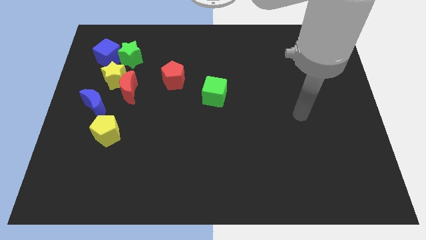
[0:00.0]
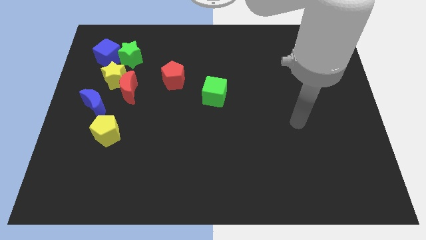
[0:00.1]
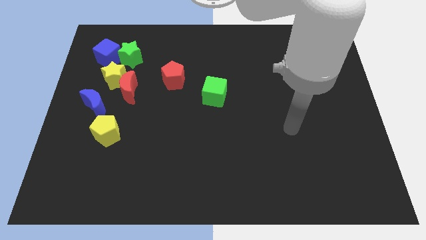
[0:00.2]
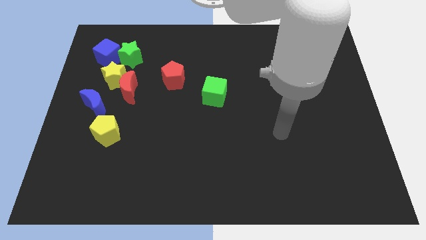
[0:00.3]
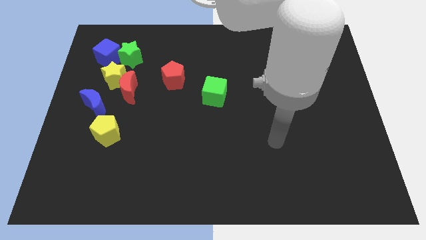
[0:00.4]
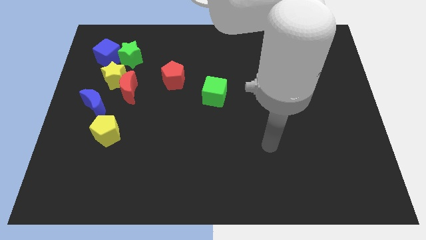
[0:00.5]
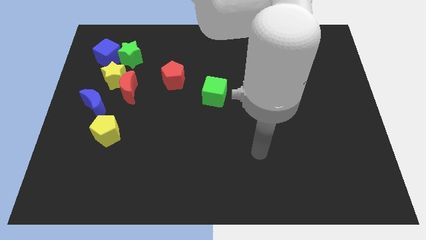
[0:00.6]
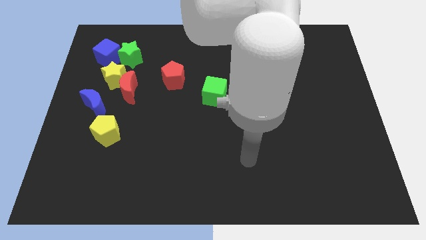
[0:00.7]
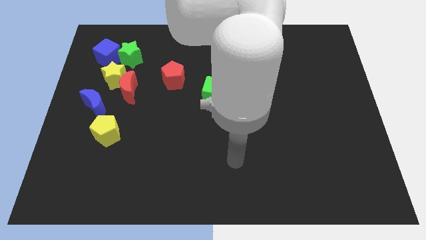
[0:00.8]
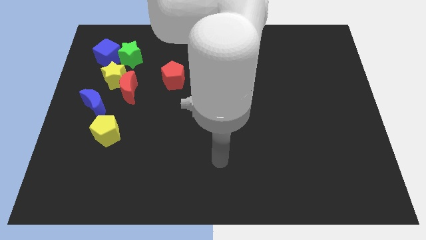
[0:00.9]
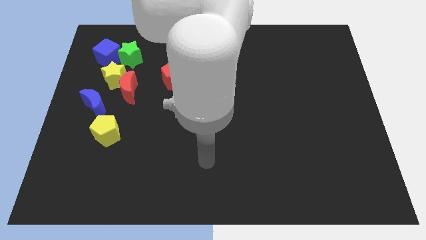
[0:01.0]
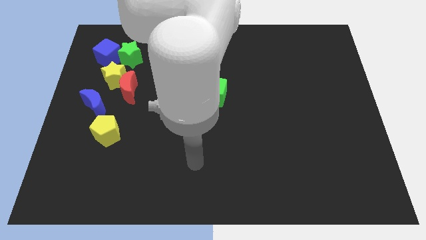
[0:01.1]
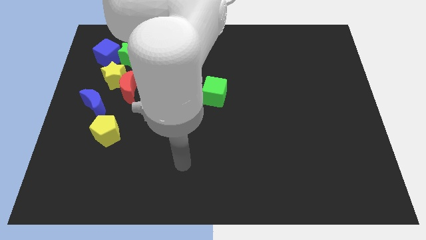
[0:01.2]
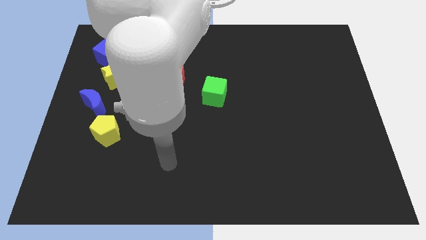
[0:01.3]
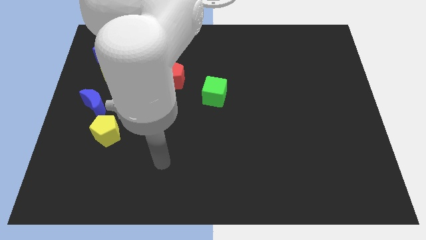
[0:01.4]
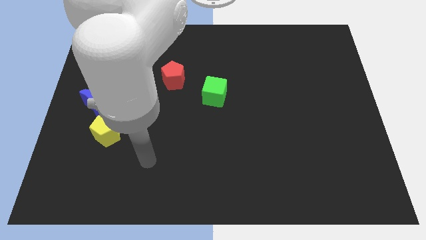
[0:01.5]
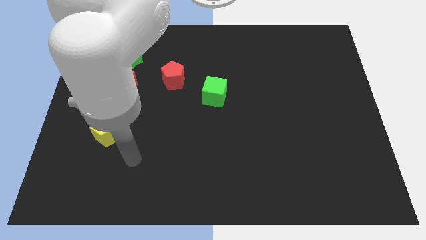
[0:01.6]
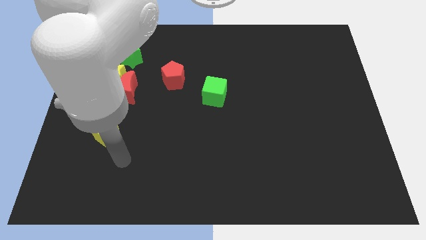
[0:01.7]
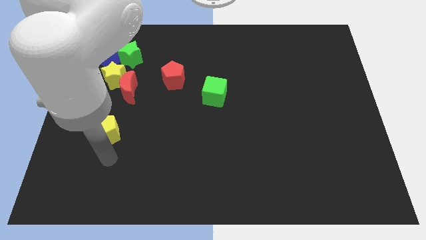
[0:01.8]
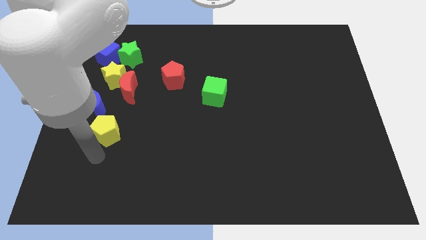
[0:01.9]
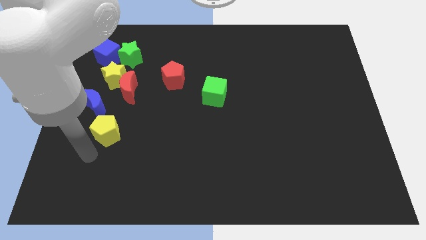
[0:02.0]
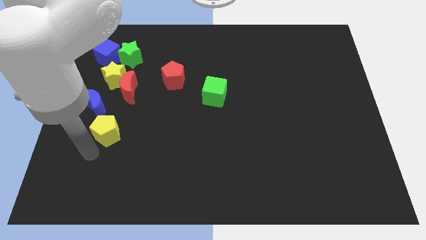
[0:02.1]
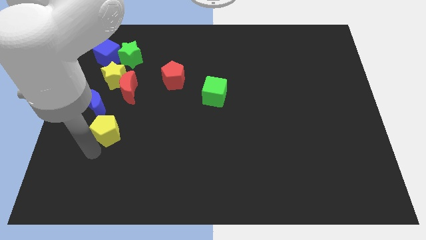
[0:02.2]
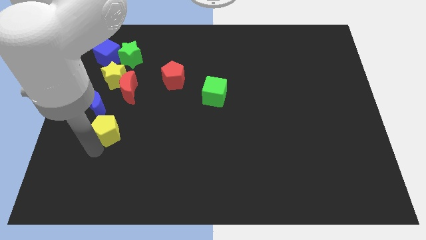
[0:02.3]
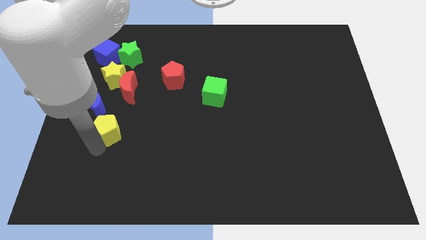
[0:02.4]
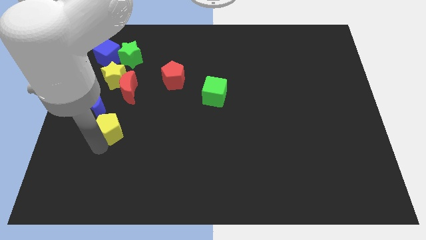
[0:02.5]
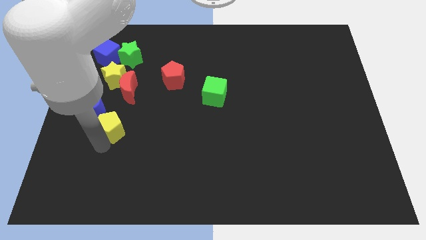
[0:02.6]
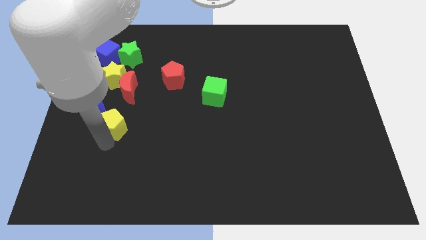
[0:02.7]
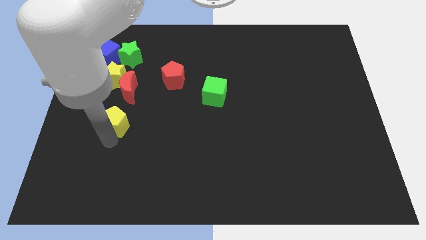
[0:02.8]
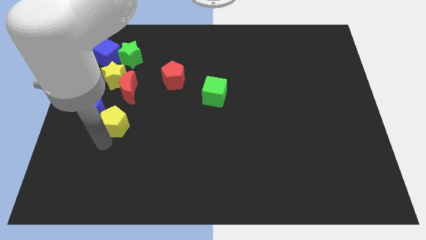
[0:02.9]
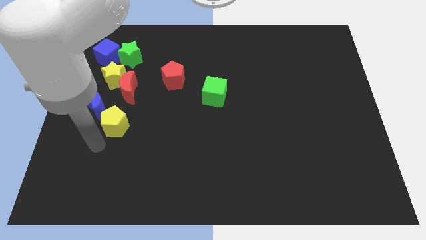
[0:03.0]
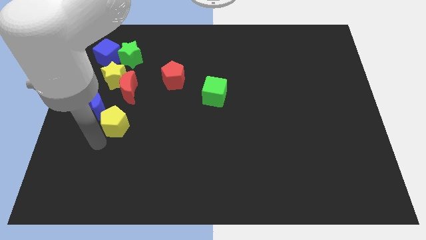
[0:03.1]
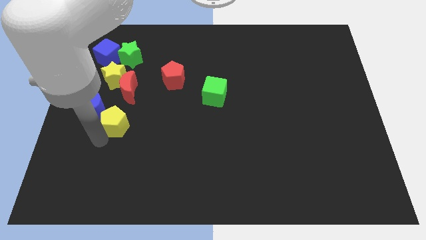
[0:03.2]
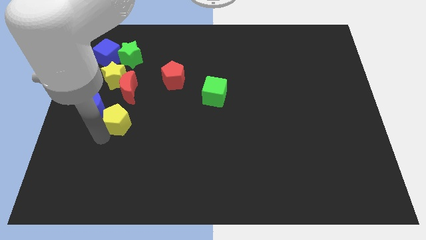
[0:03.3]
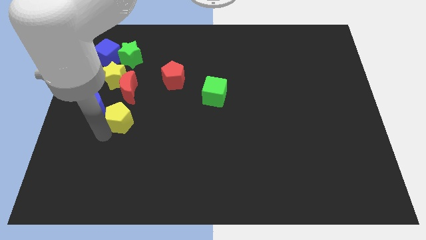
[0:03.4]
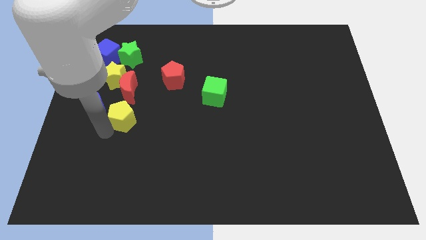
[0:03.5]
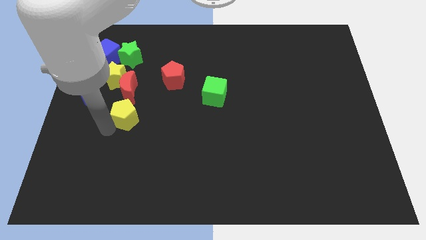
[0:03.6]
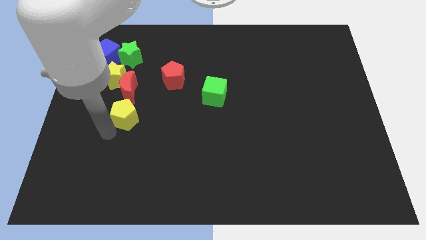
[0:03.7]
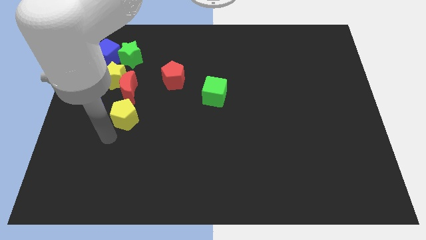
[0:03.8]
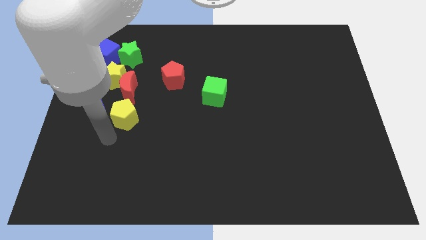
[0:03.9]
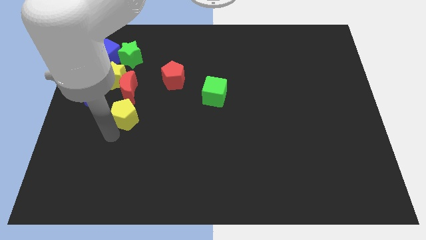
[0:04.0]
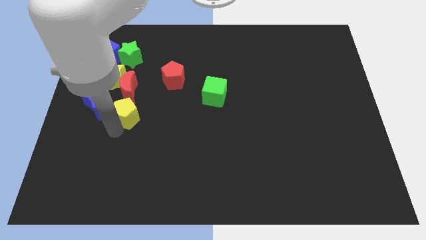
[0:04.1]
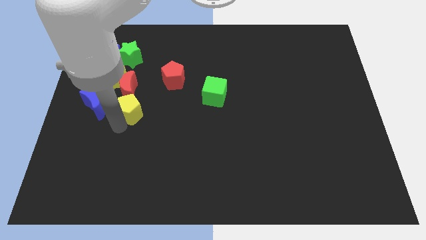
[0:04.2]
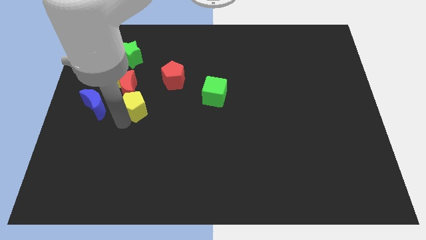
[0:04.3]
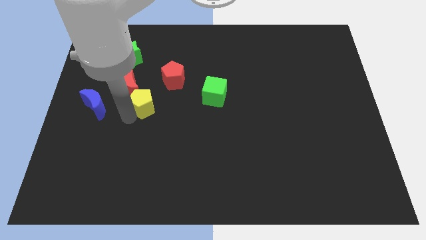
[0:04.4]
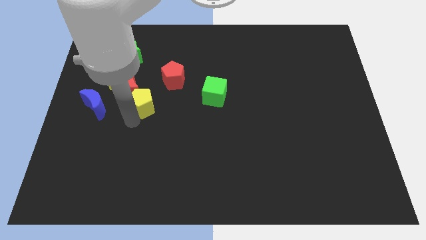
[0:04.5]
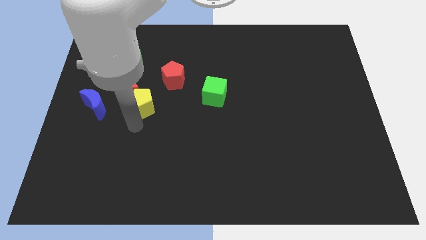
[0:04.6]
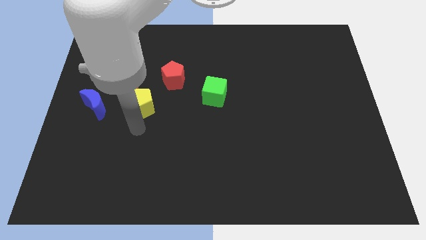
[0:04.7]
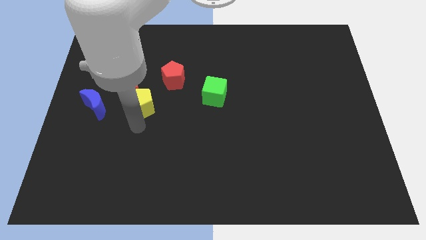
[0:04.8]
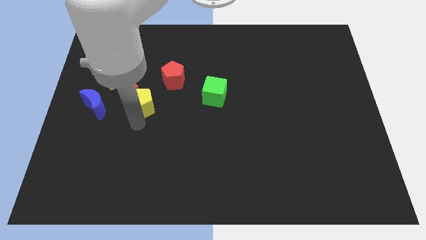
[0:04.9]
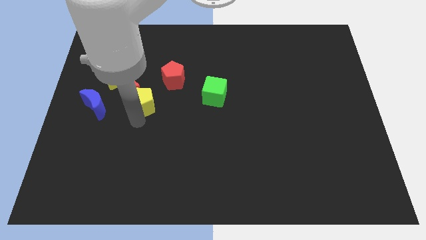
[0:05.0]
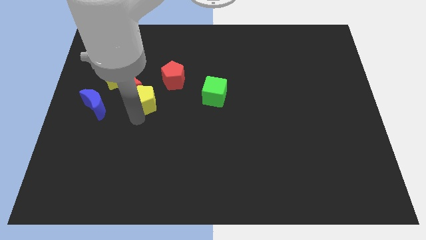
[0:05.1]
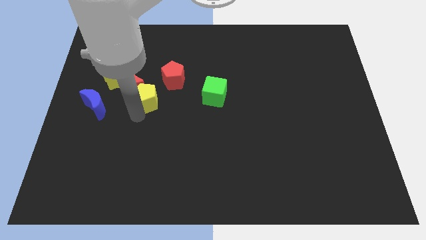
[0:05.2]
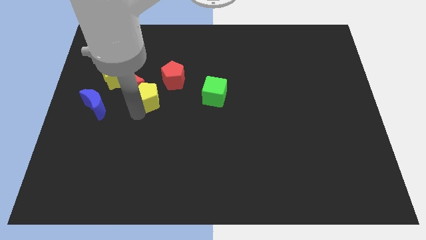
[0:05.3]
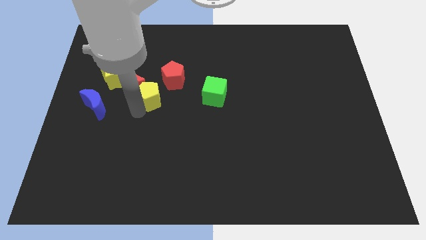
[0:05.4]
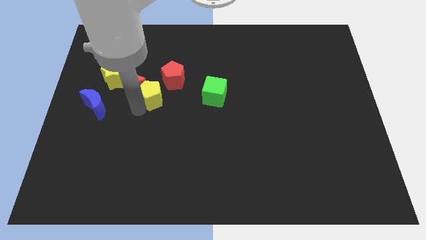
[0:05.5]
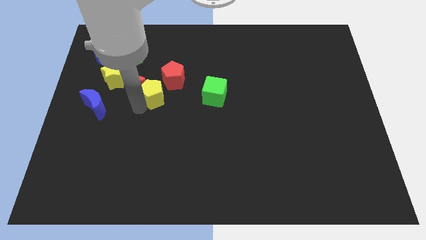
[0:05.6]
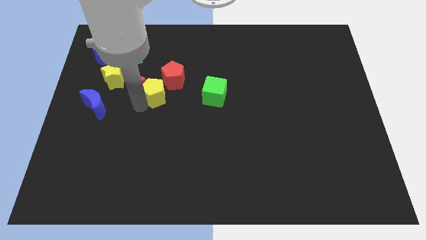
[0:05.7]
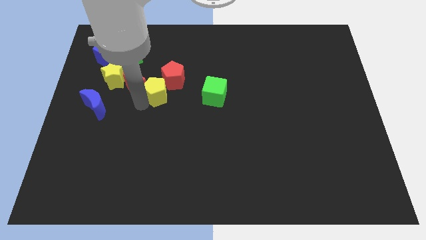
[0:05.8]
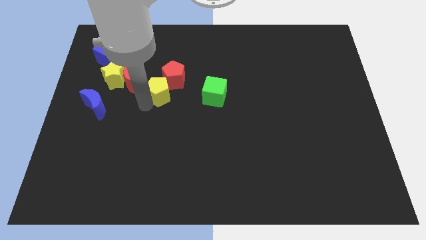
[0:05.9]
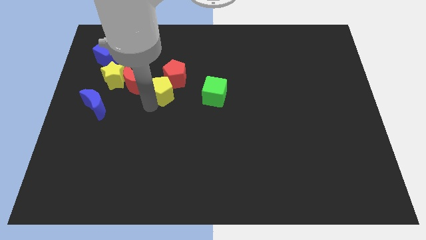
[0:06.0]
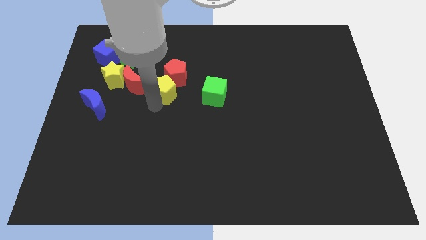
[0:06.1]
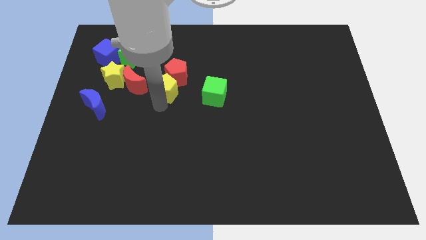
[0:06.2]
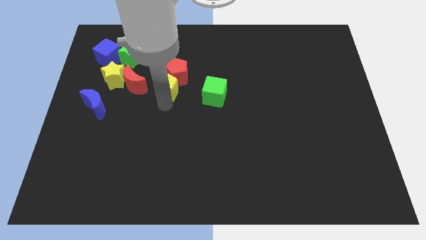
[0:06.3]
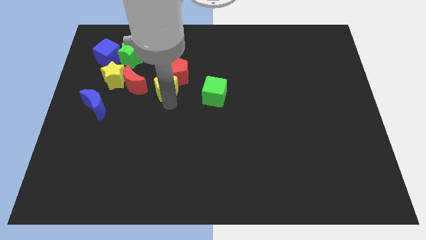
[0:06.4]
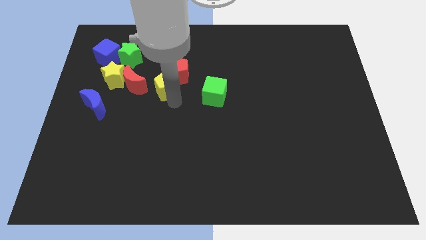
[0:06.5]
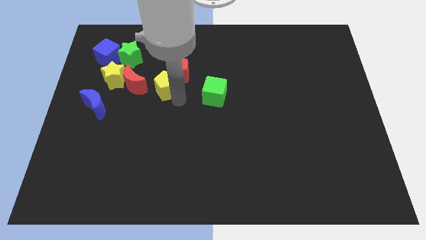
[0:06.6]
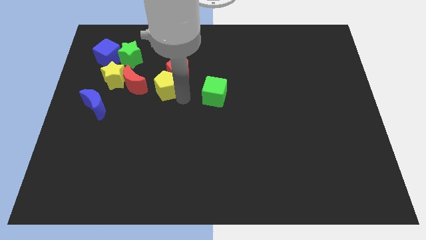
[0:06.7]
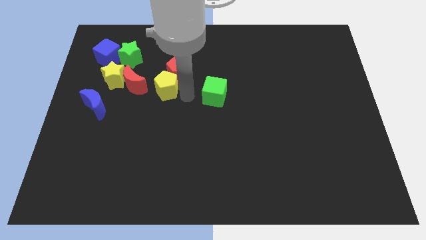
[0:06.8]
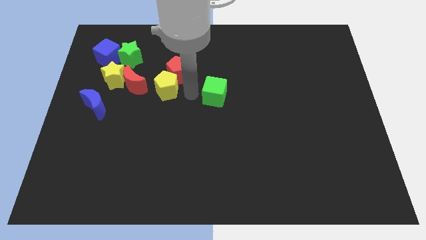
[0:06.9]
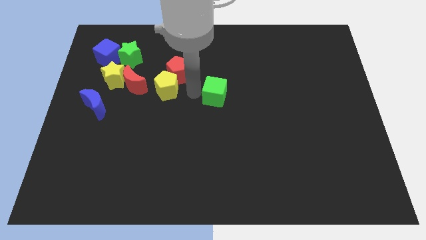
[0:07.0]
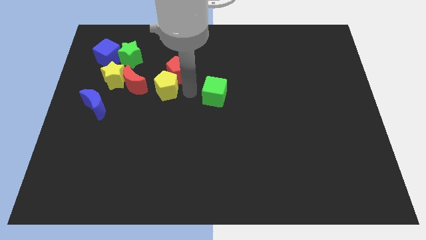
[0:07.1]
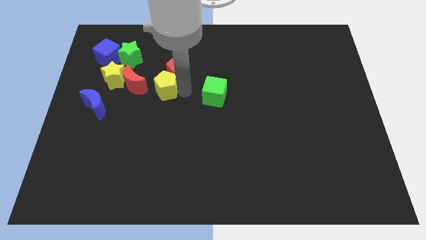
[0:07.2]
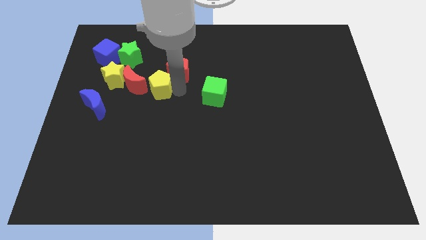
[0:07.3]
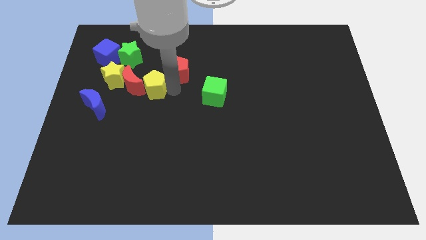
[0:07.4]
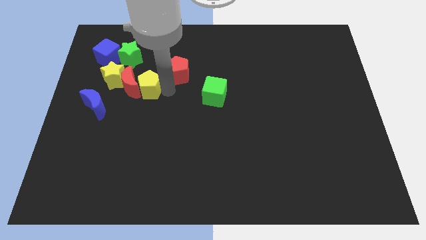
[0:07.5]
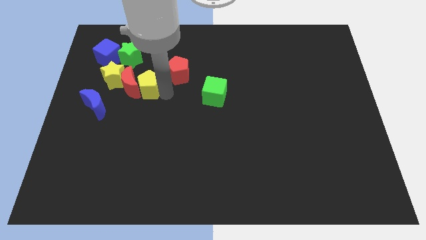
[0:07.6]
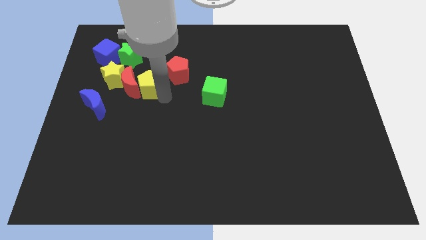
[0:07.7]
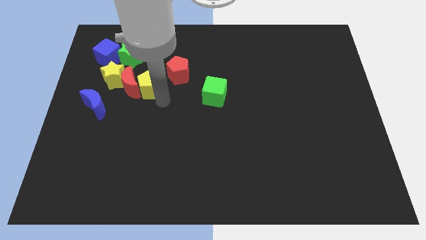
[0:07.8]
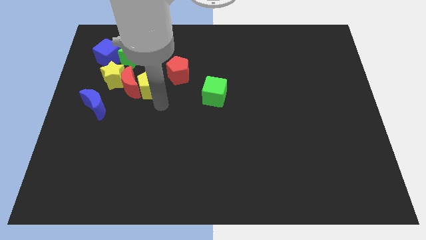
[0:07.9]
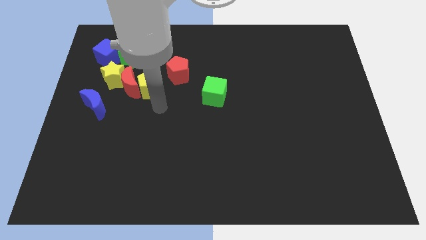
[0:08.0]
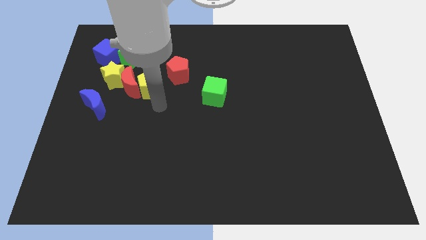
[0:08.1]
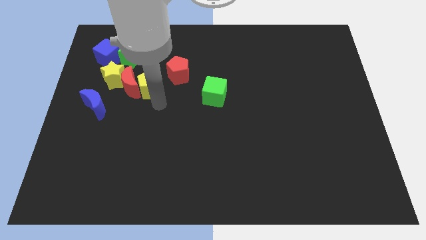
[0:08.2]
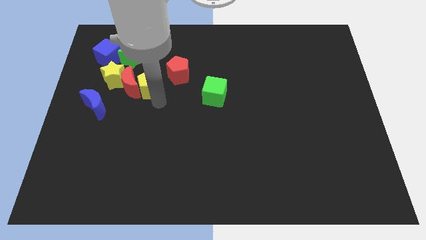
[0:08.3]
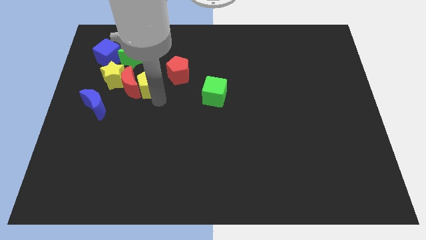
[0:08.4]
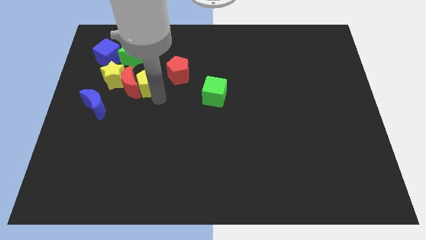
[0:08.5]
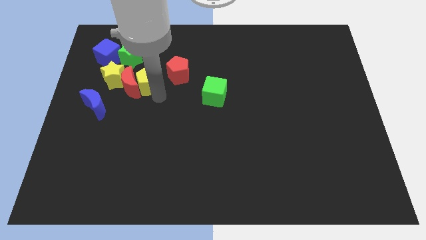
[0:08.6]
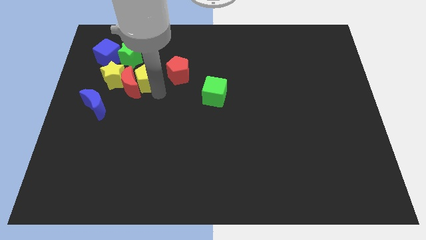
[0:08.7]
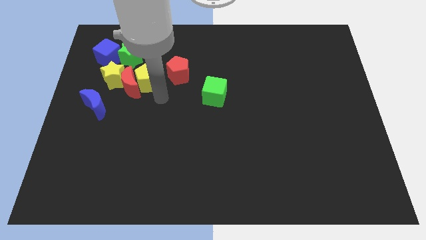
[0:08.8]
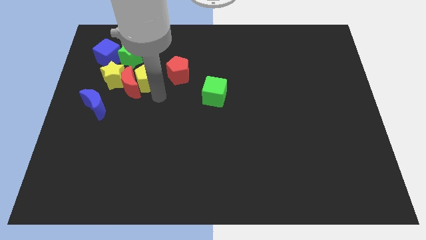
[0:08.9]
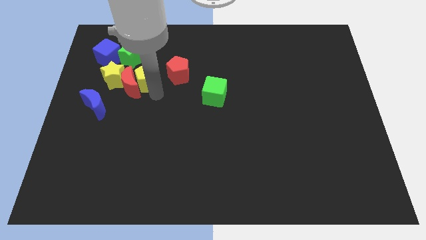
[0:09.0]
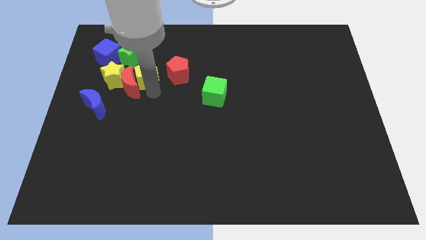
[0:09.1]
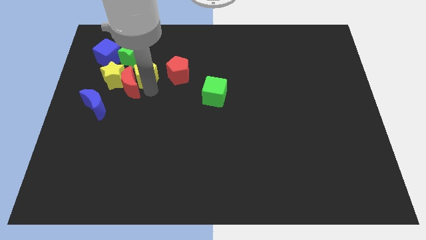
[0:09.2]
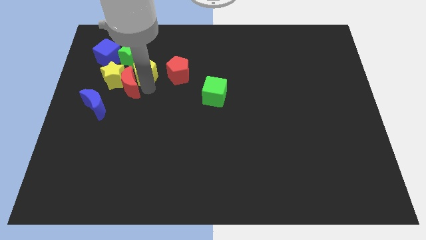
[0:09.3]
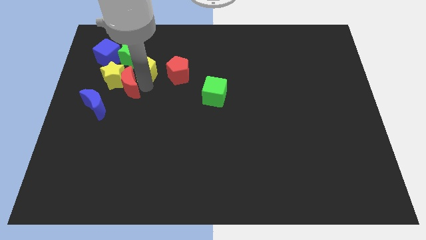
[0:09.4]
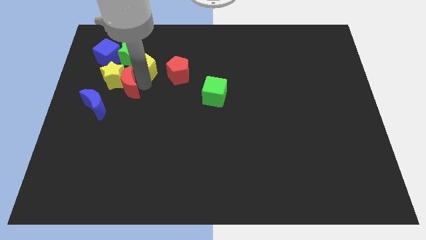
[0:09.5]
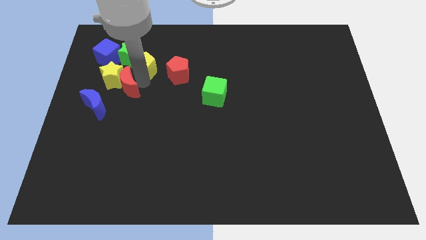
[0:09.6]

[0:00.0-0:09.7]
push the yellow pentagon next to the green star
